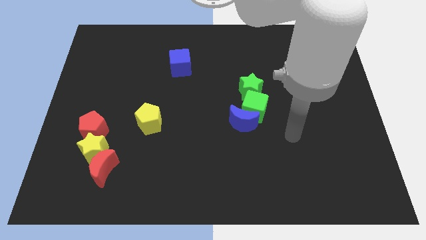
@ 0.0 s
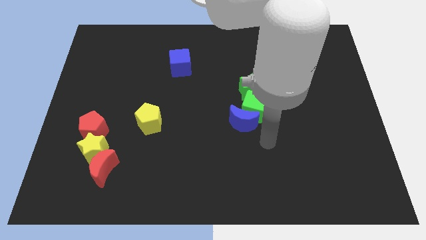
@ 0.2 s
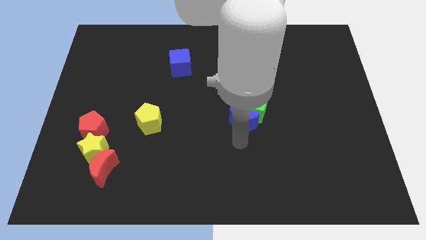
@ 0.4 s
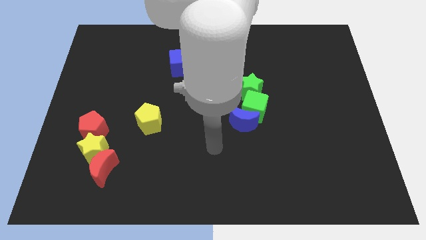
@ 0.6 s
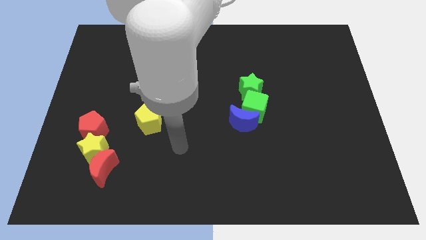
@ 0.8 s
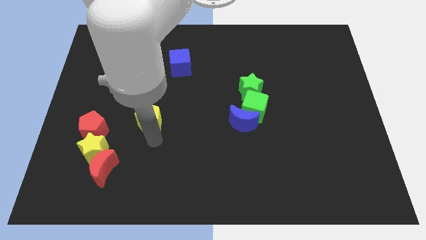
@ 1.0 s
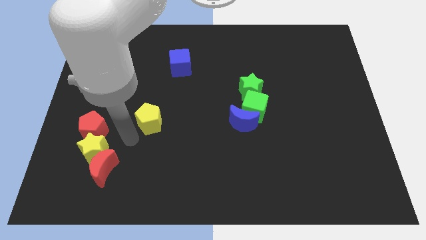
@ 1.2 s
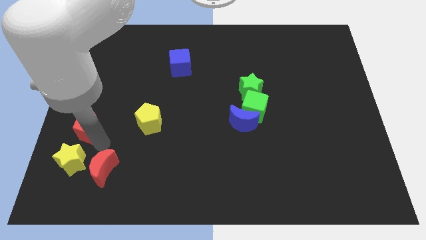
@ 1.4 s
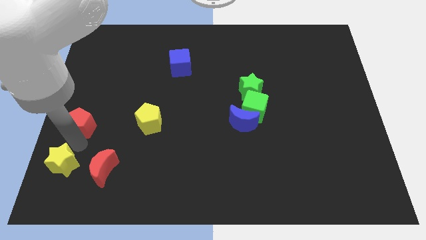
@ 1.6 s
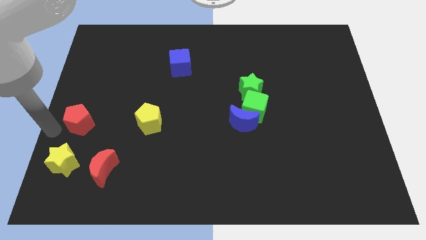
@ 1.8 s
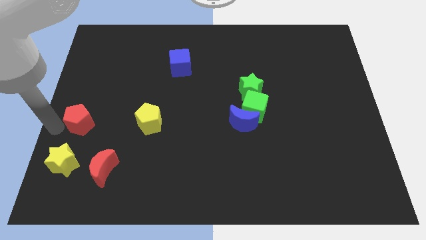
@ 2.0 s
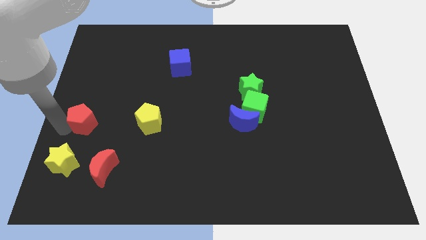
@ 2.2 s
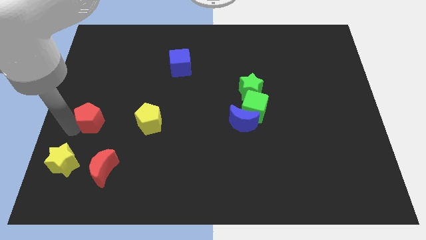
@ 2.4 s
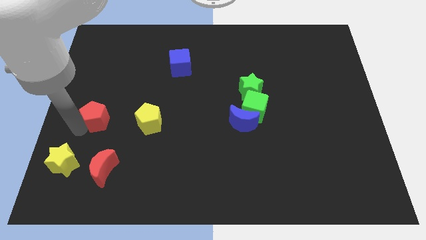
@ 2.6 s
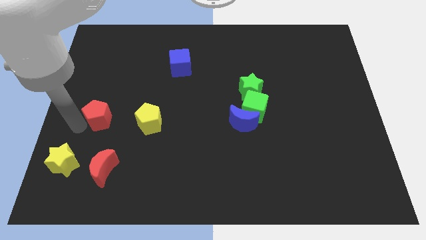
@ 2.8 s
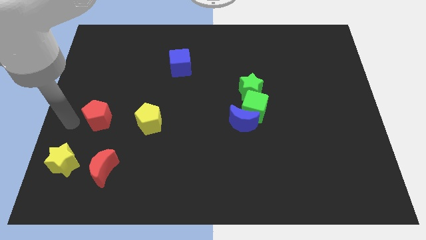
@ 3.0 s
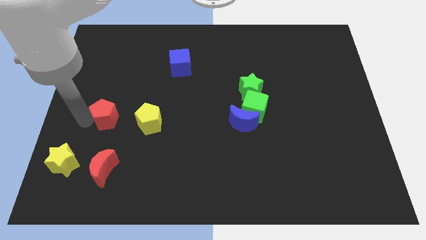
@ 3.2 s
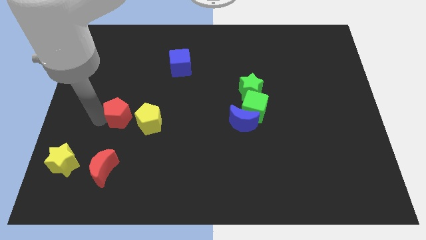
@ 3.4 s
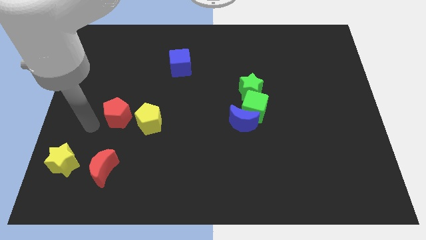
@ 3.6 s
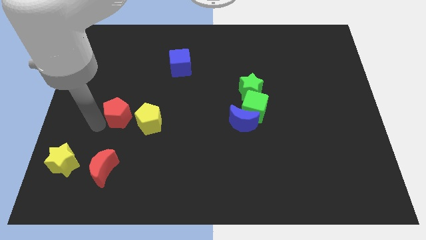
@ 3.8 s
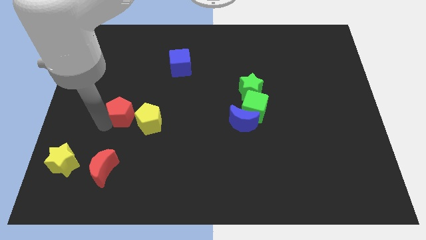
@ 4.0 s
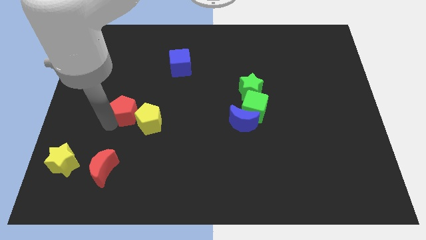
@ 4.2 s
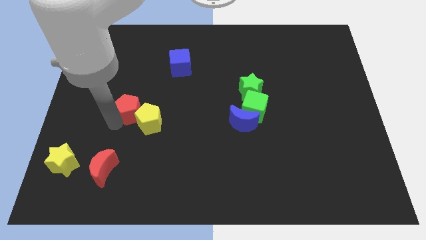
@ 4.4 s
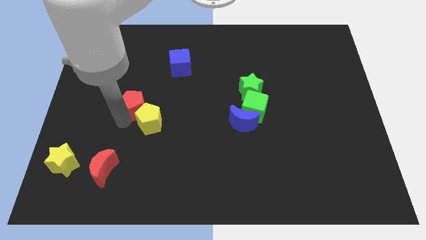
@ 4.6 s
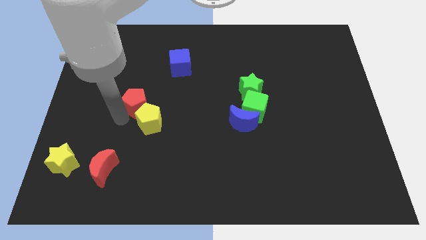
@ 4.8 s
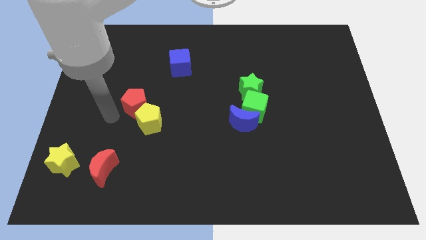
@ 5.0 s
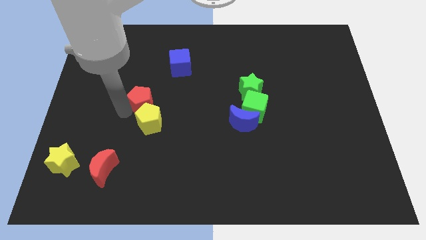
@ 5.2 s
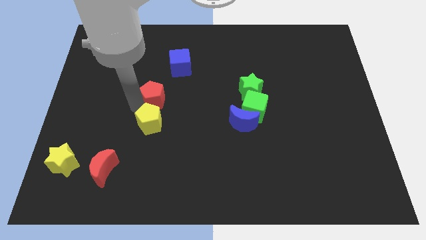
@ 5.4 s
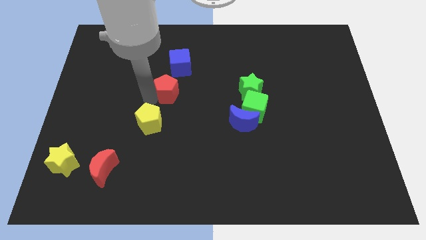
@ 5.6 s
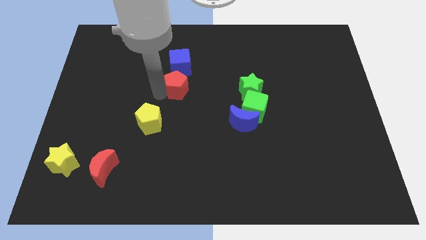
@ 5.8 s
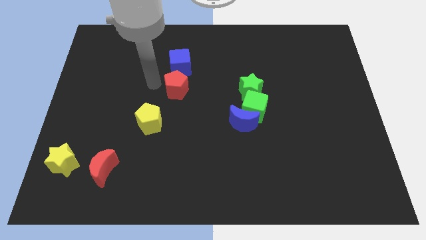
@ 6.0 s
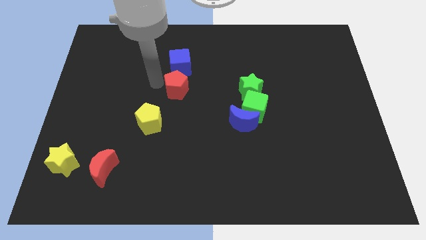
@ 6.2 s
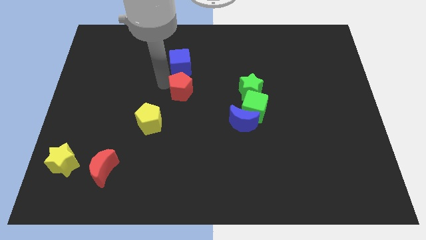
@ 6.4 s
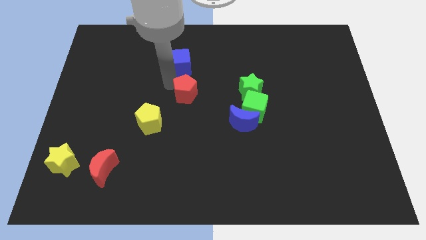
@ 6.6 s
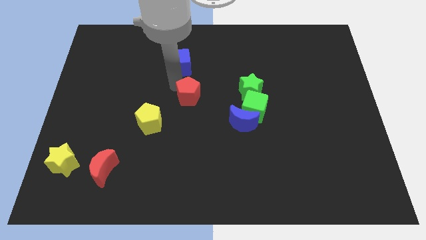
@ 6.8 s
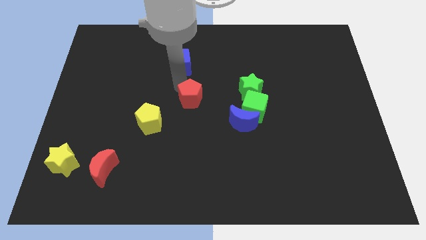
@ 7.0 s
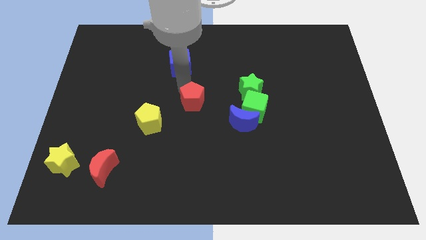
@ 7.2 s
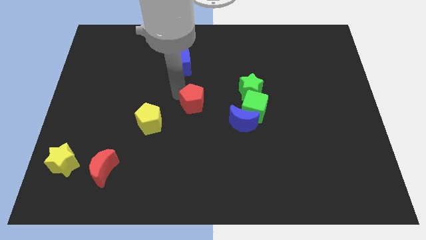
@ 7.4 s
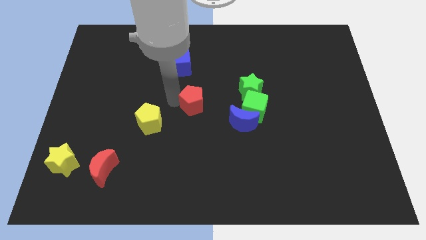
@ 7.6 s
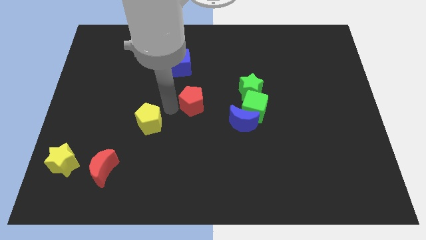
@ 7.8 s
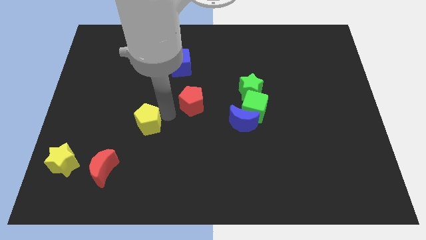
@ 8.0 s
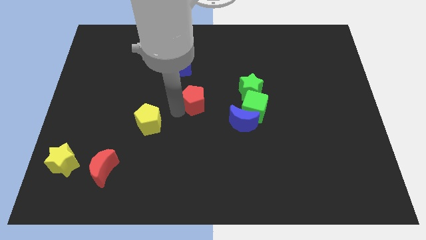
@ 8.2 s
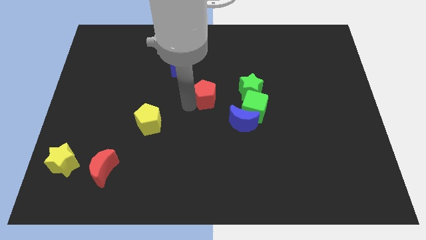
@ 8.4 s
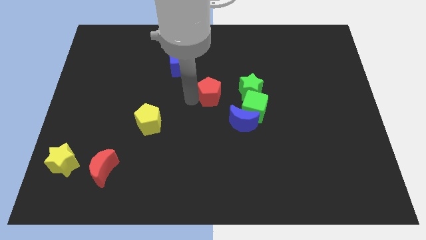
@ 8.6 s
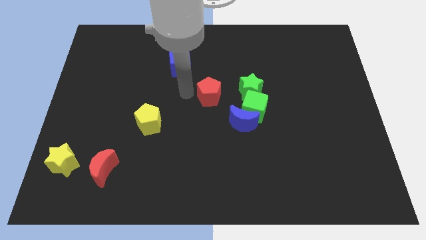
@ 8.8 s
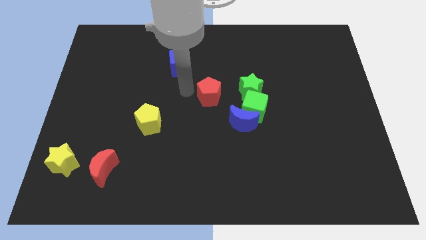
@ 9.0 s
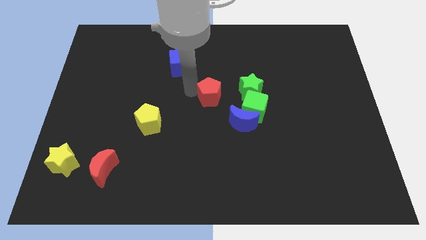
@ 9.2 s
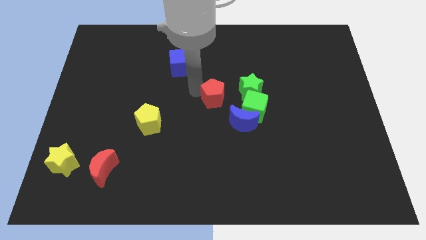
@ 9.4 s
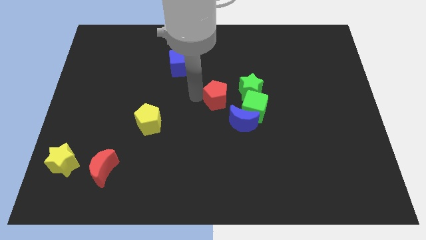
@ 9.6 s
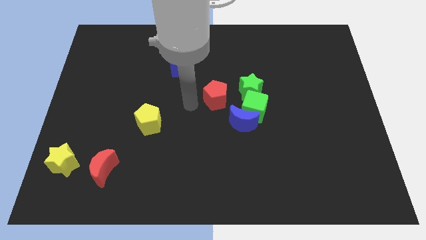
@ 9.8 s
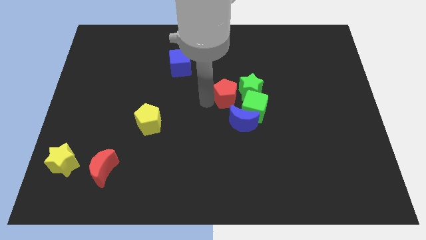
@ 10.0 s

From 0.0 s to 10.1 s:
slide the red pentagon next to the green star

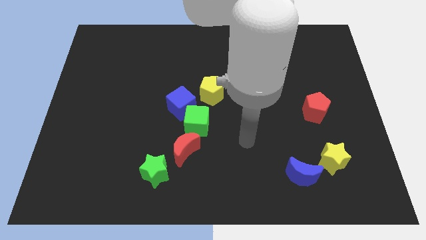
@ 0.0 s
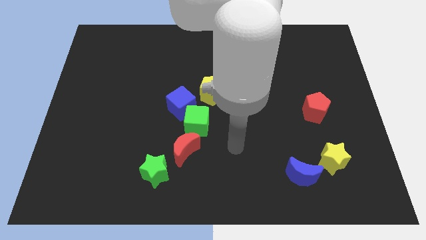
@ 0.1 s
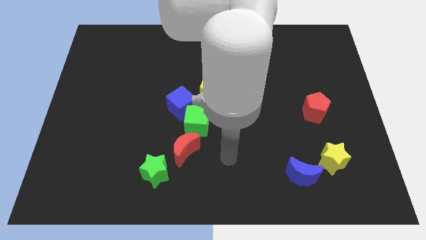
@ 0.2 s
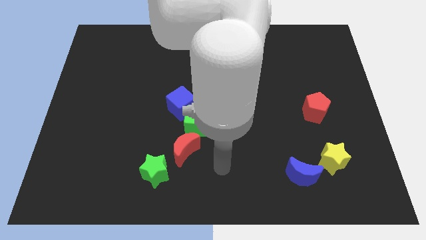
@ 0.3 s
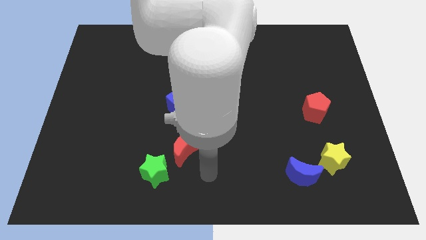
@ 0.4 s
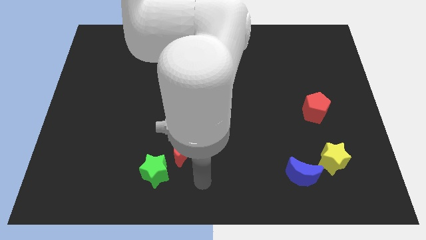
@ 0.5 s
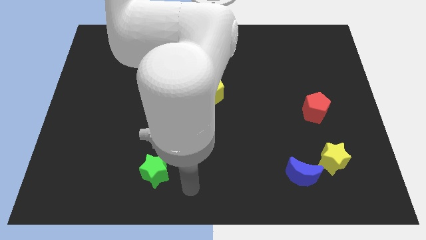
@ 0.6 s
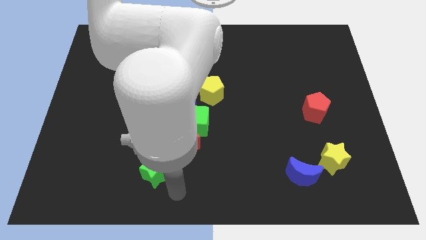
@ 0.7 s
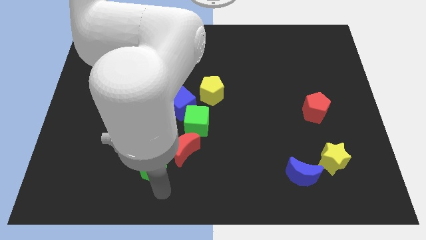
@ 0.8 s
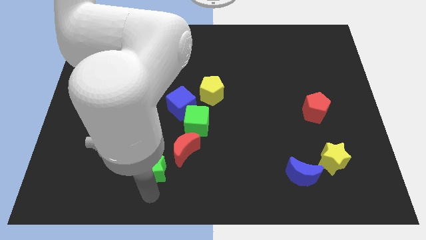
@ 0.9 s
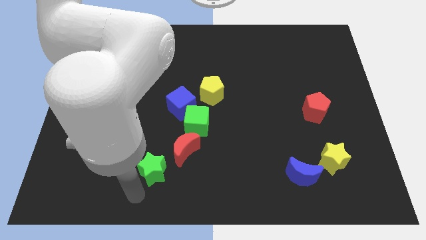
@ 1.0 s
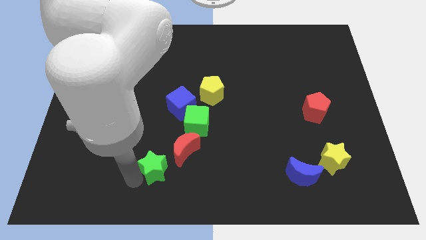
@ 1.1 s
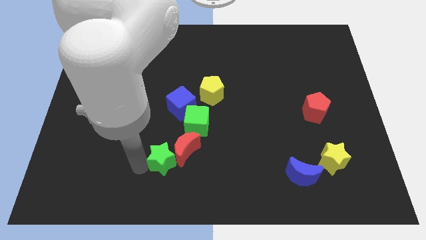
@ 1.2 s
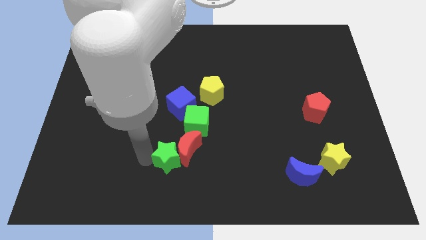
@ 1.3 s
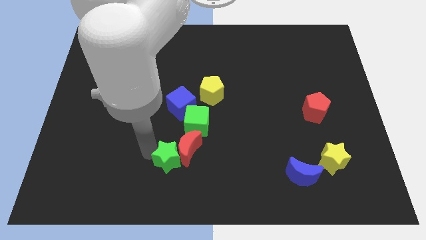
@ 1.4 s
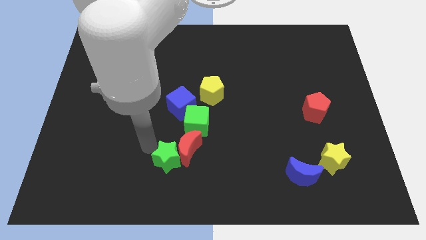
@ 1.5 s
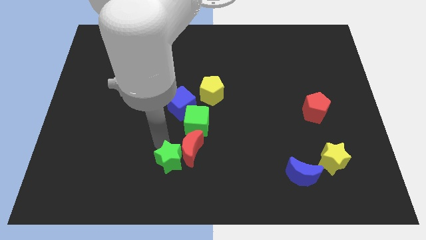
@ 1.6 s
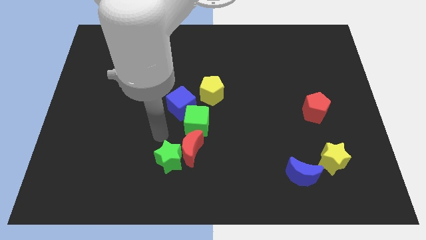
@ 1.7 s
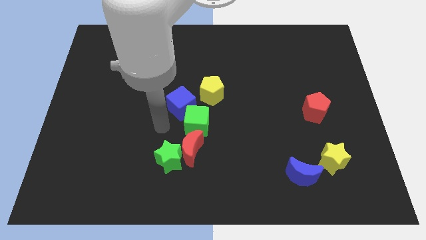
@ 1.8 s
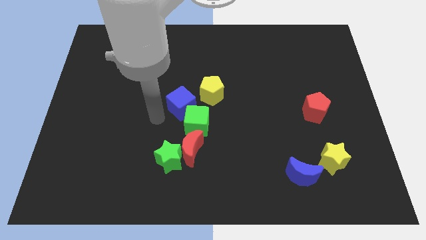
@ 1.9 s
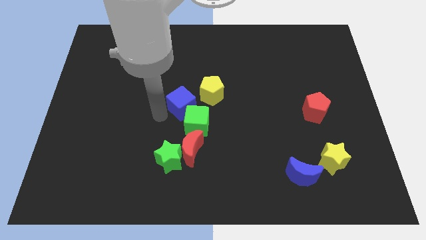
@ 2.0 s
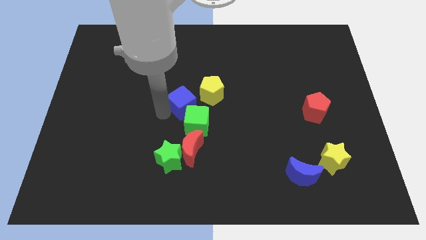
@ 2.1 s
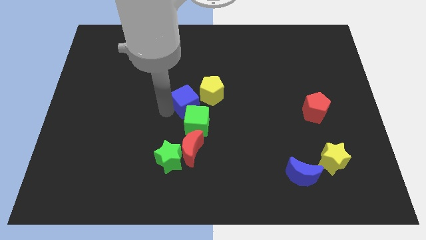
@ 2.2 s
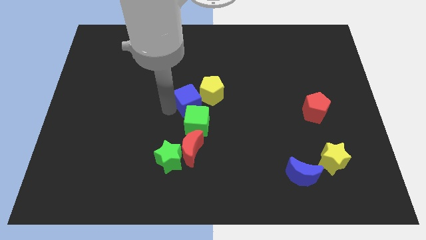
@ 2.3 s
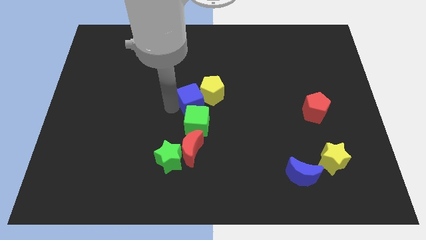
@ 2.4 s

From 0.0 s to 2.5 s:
push the blue cube towards the yellow pentagon
